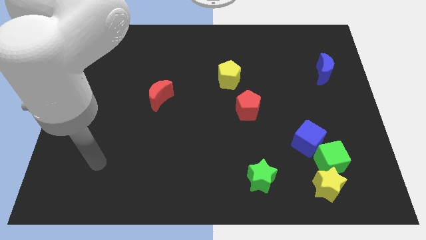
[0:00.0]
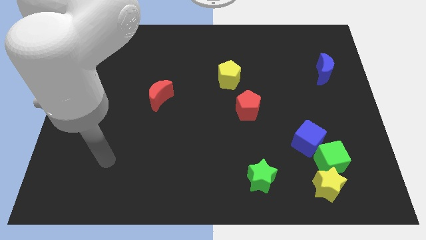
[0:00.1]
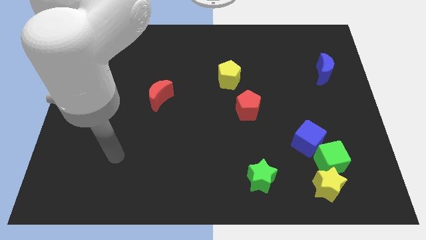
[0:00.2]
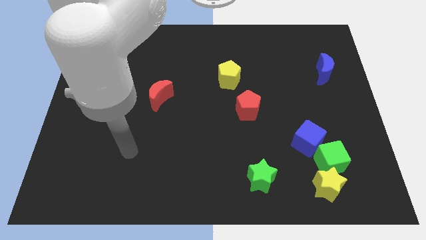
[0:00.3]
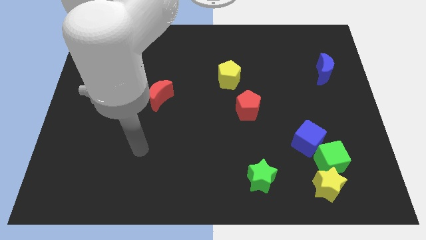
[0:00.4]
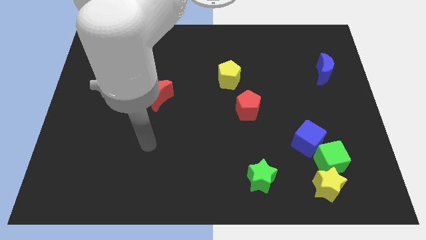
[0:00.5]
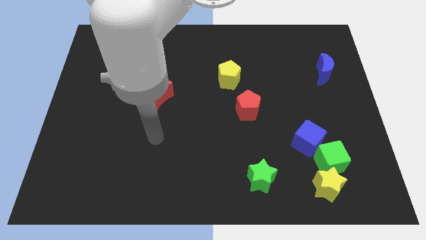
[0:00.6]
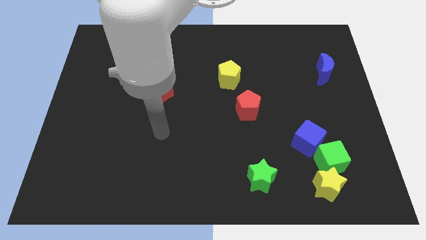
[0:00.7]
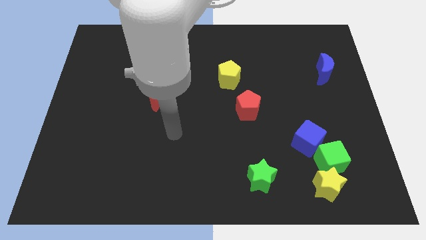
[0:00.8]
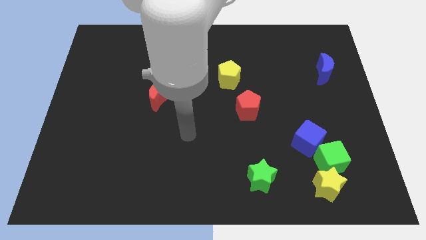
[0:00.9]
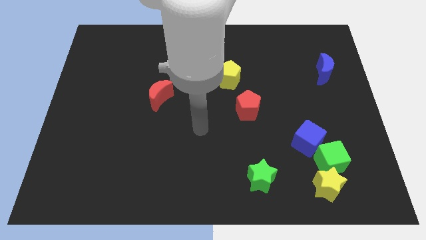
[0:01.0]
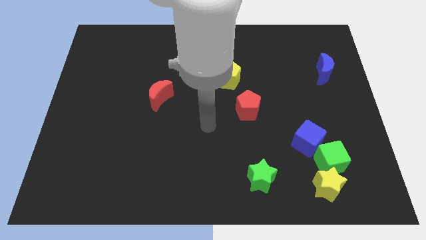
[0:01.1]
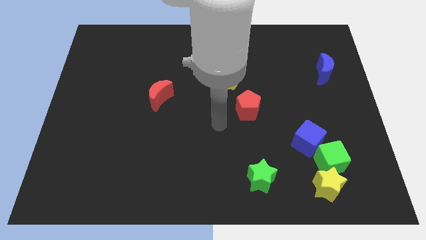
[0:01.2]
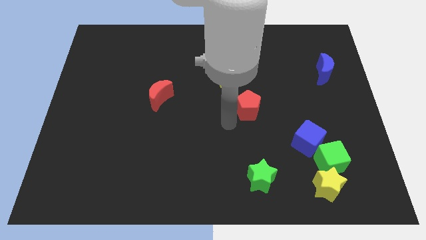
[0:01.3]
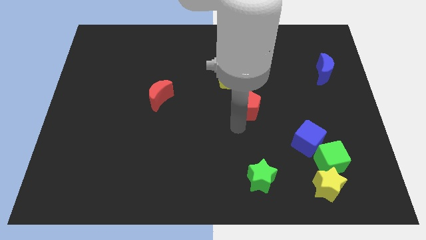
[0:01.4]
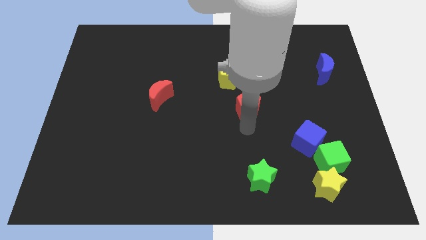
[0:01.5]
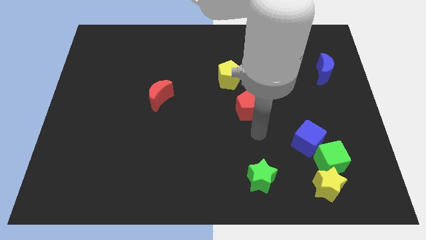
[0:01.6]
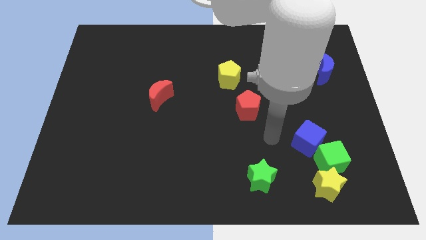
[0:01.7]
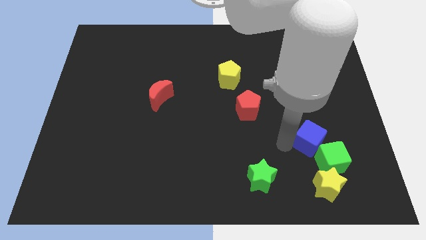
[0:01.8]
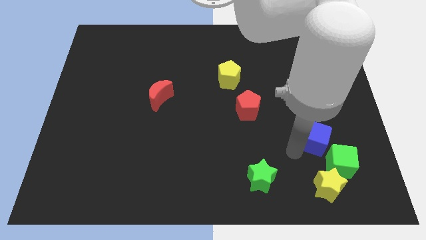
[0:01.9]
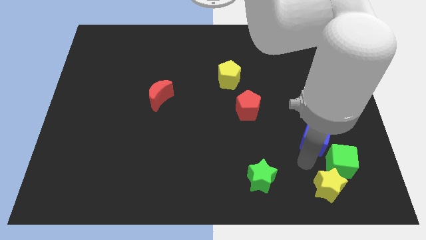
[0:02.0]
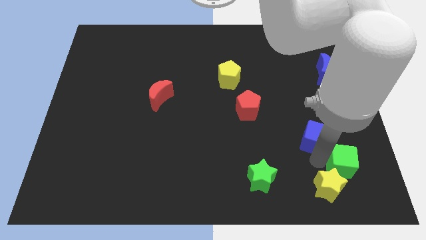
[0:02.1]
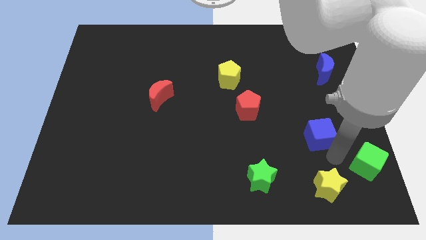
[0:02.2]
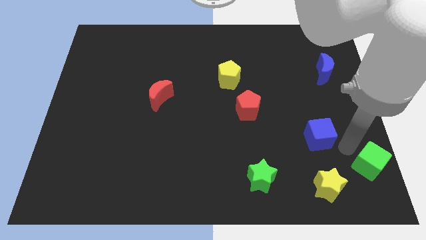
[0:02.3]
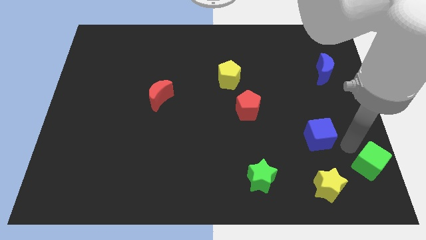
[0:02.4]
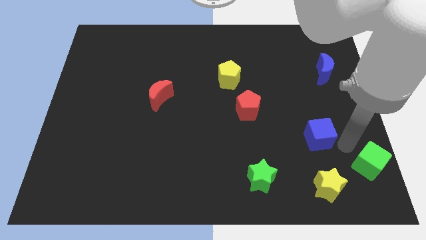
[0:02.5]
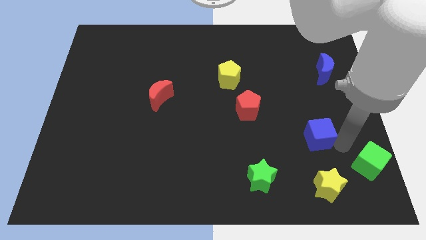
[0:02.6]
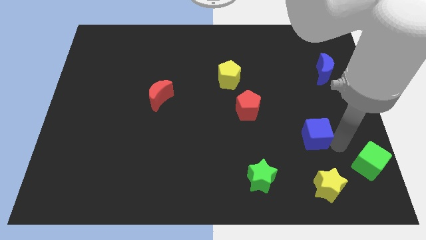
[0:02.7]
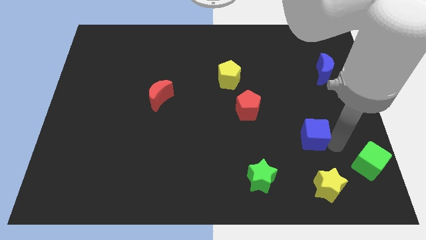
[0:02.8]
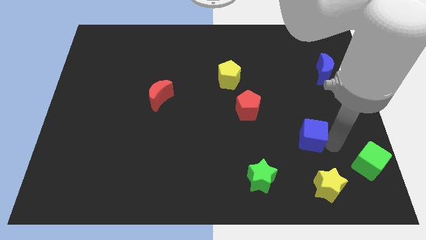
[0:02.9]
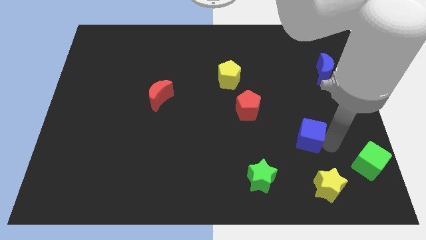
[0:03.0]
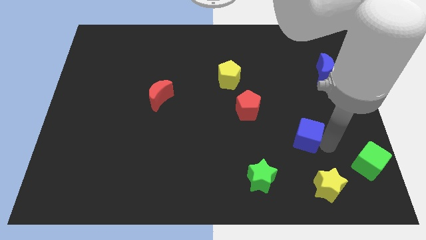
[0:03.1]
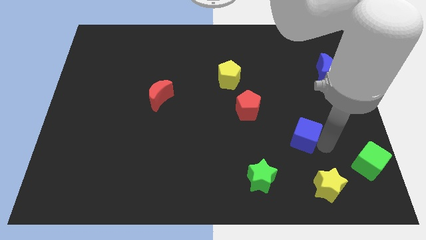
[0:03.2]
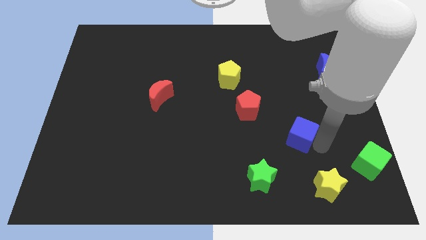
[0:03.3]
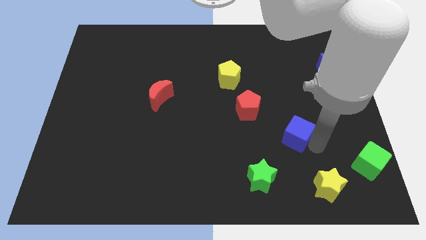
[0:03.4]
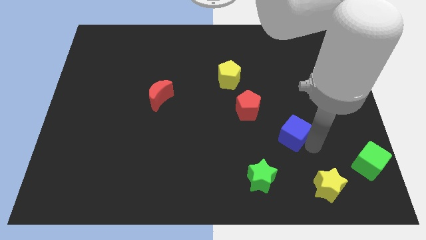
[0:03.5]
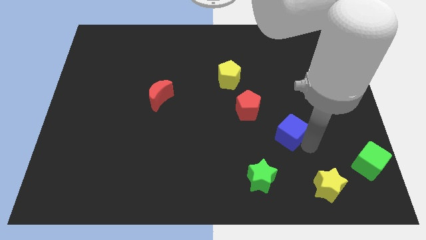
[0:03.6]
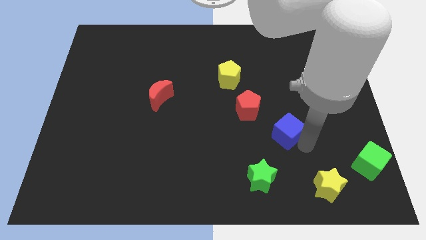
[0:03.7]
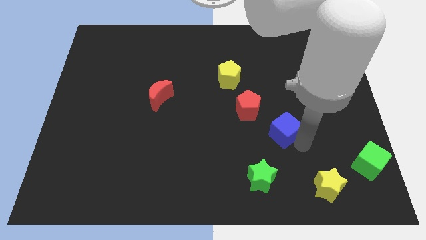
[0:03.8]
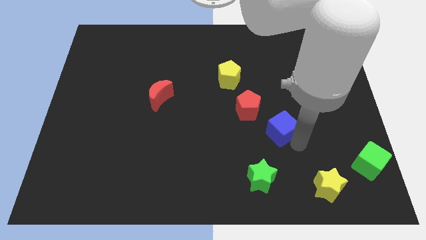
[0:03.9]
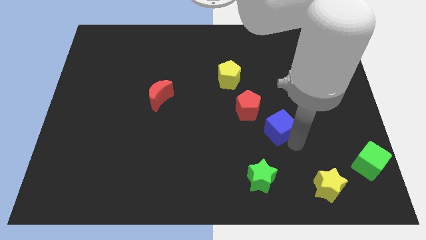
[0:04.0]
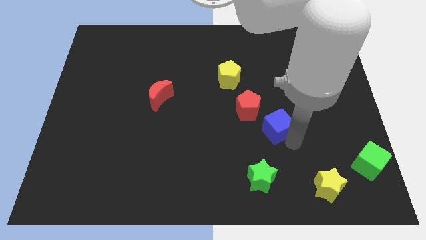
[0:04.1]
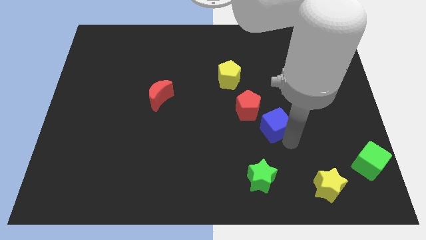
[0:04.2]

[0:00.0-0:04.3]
slightly push the blue cube upwards and to the left diagonally

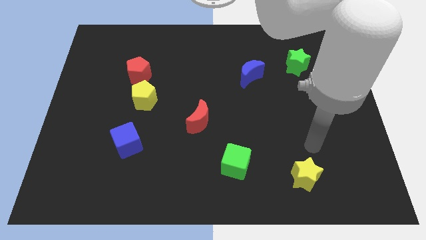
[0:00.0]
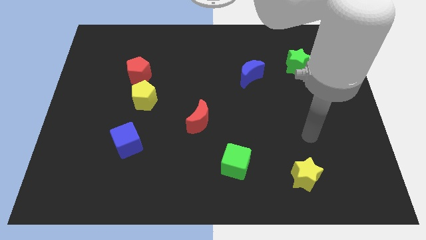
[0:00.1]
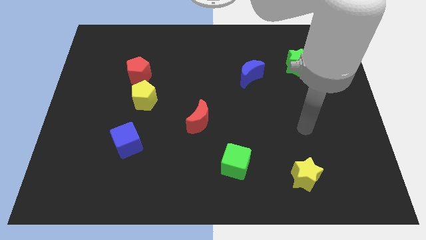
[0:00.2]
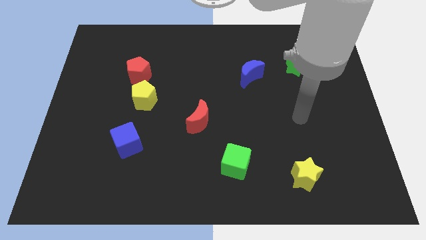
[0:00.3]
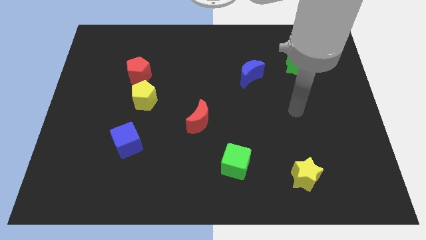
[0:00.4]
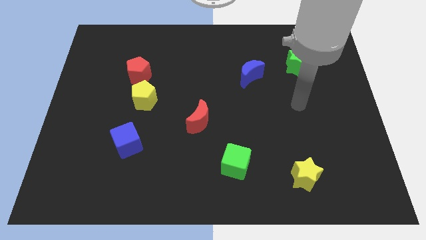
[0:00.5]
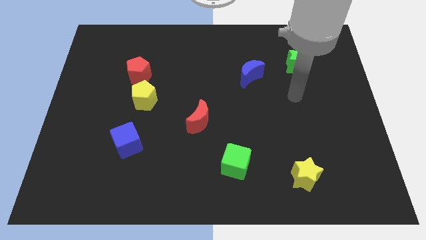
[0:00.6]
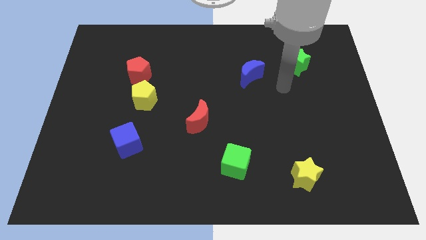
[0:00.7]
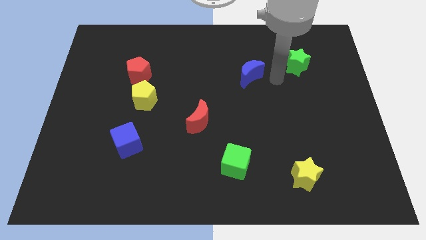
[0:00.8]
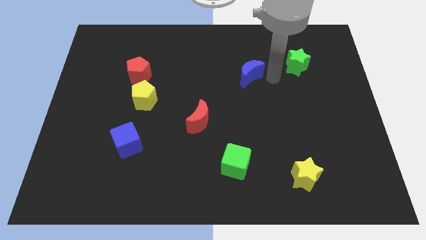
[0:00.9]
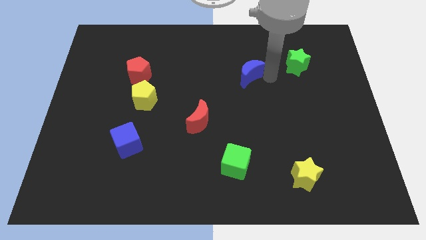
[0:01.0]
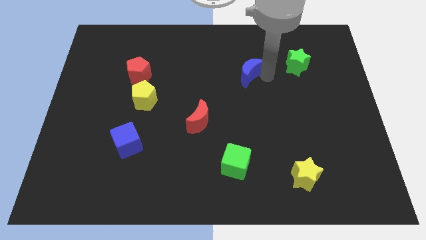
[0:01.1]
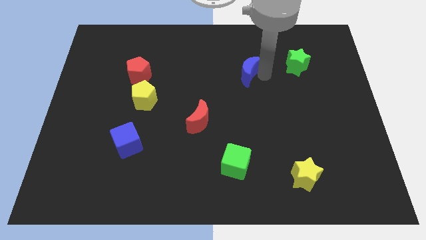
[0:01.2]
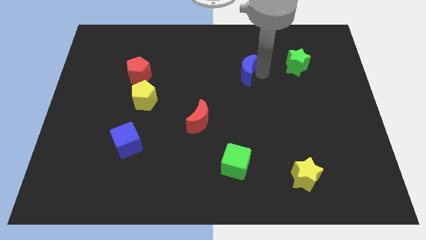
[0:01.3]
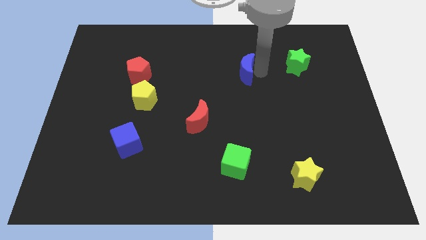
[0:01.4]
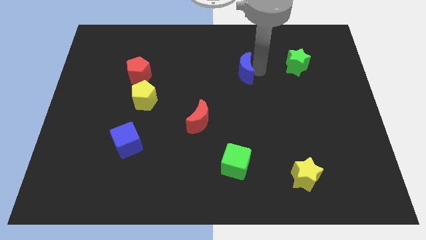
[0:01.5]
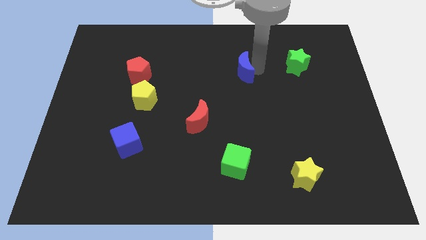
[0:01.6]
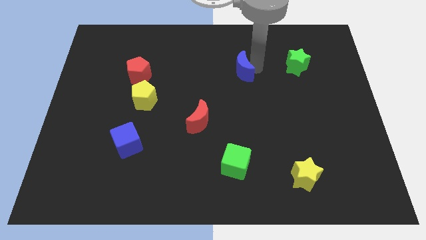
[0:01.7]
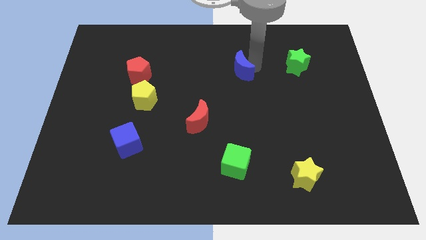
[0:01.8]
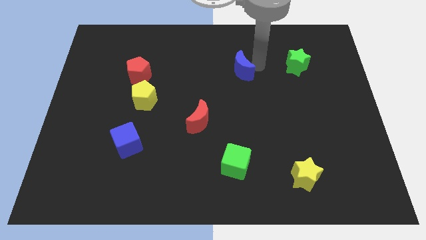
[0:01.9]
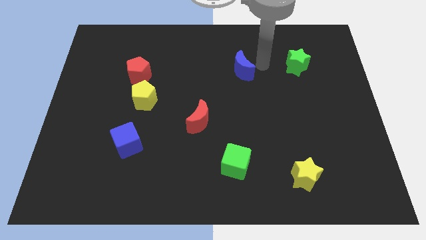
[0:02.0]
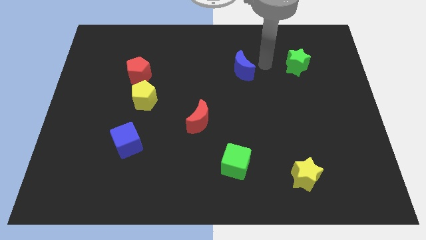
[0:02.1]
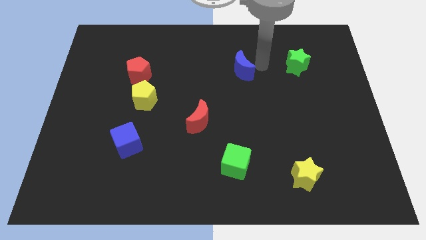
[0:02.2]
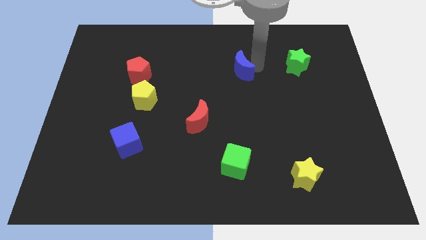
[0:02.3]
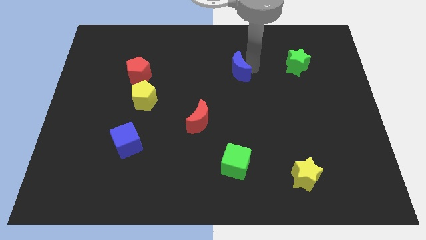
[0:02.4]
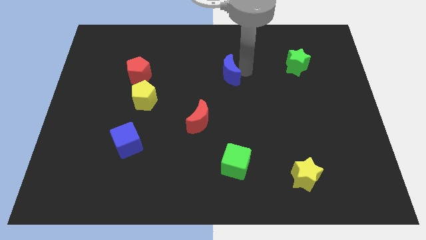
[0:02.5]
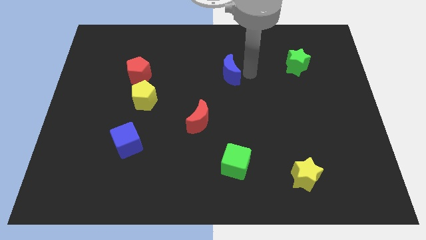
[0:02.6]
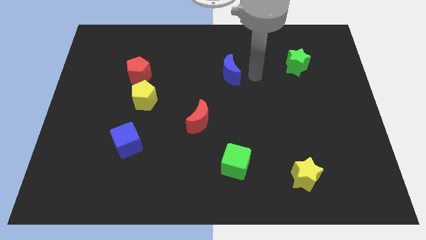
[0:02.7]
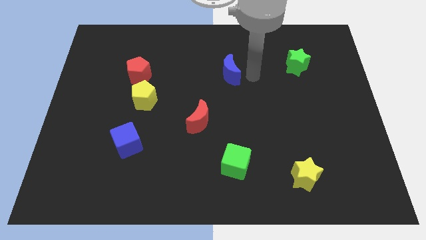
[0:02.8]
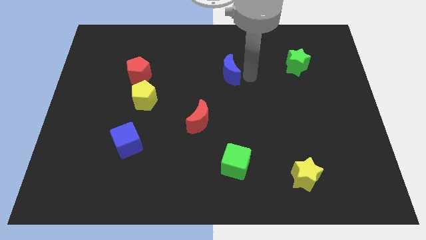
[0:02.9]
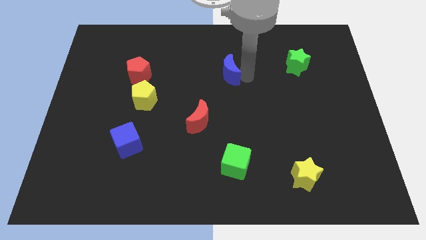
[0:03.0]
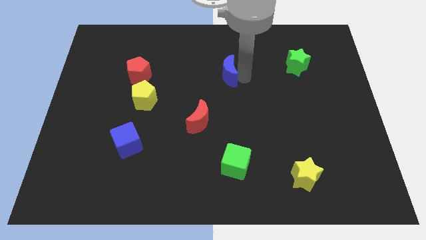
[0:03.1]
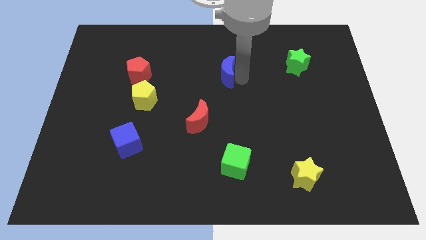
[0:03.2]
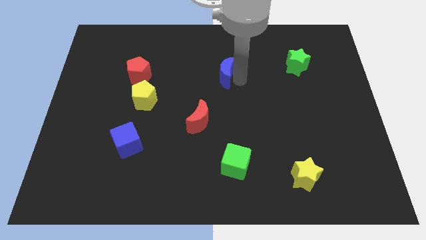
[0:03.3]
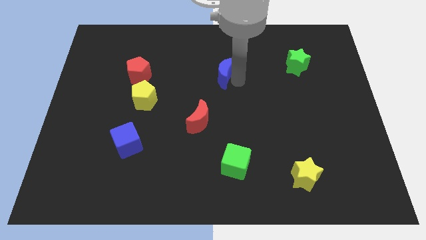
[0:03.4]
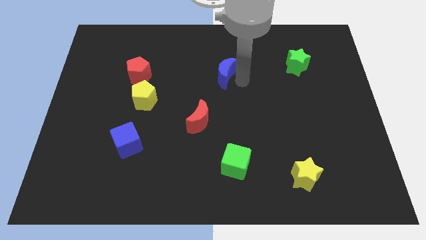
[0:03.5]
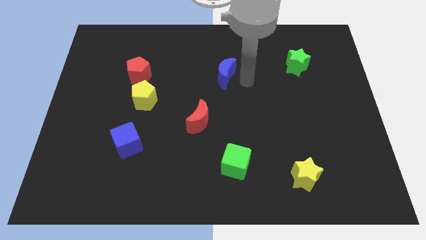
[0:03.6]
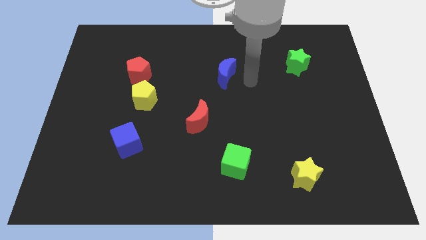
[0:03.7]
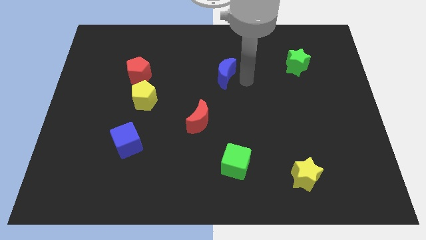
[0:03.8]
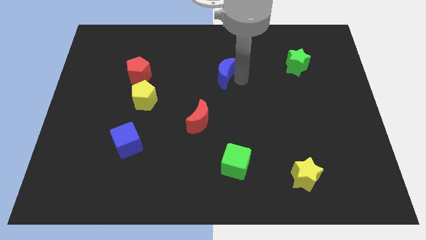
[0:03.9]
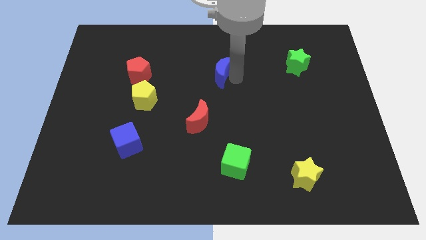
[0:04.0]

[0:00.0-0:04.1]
move the blue moon left a little bit
